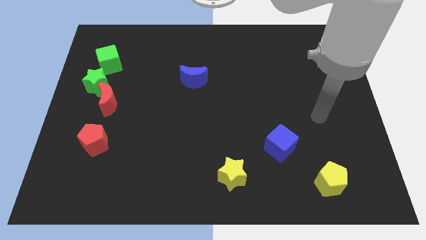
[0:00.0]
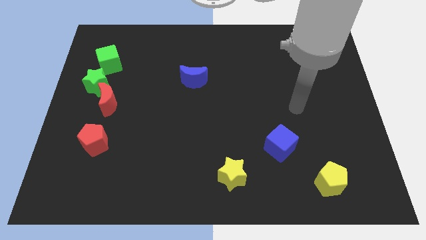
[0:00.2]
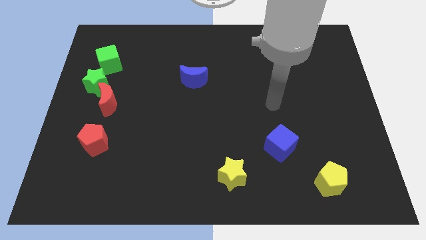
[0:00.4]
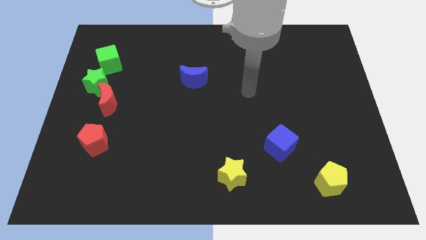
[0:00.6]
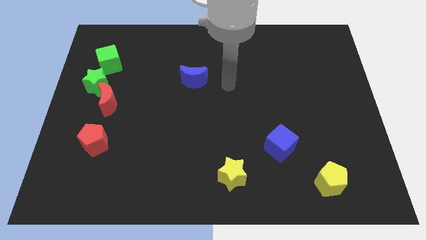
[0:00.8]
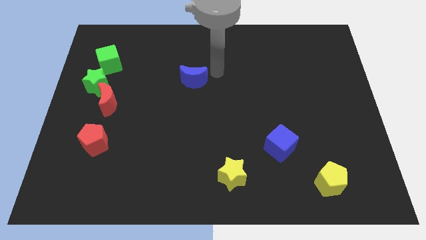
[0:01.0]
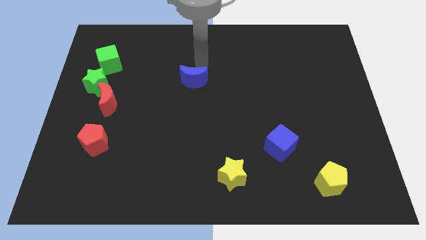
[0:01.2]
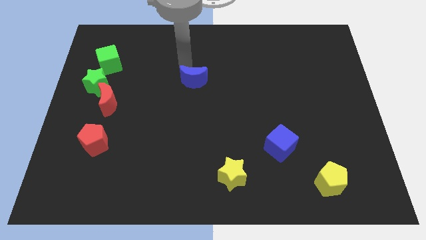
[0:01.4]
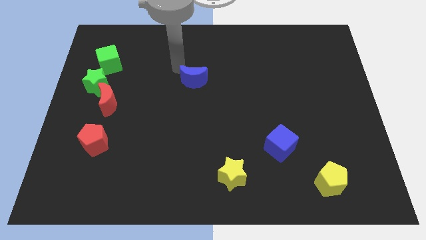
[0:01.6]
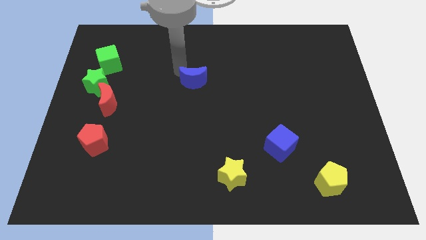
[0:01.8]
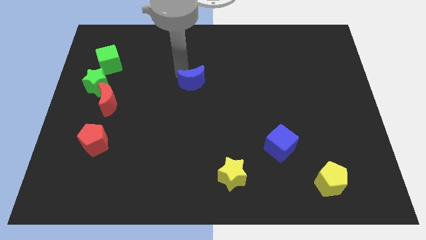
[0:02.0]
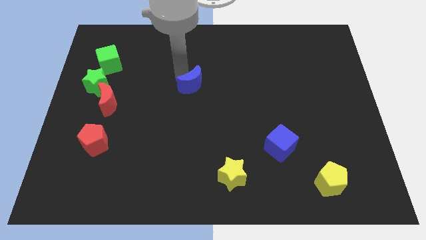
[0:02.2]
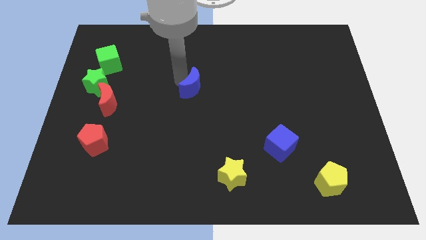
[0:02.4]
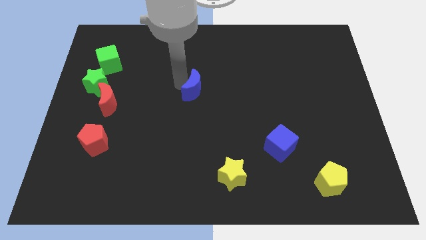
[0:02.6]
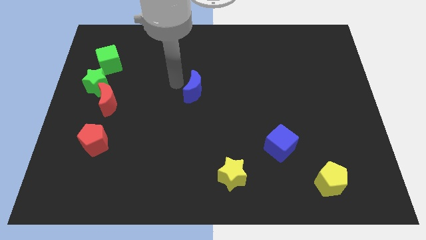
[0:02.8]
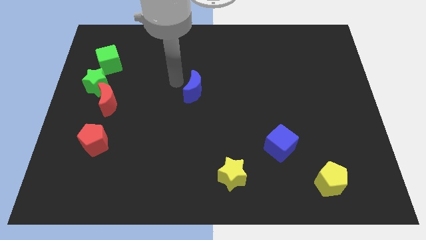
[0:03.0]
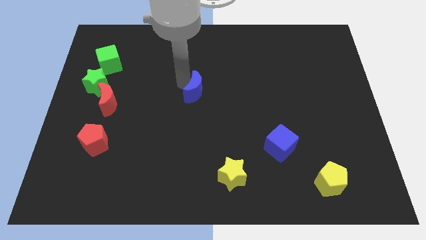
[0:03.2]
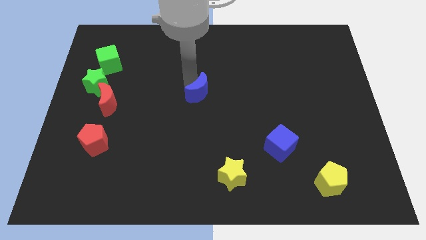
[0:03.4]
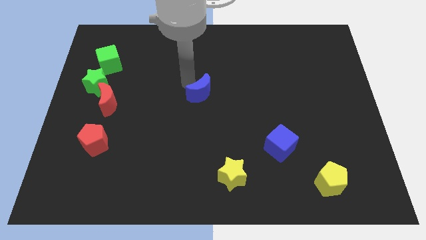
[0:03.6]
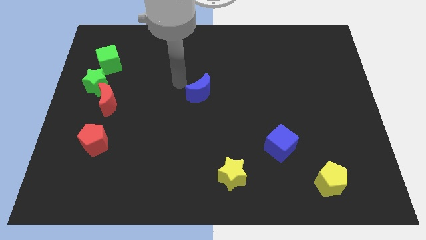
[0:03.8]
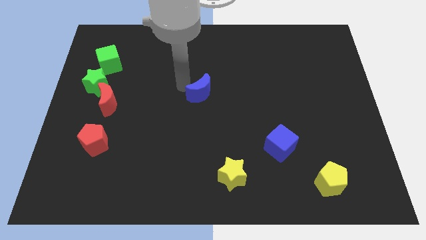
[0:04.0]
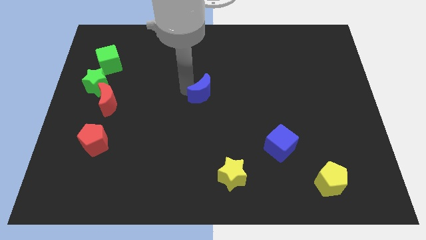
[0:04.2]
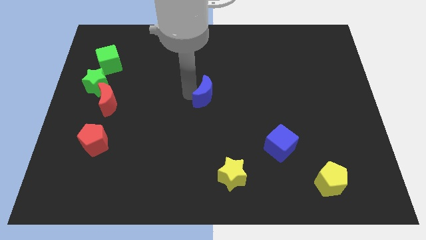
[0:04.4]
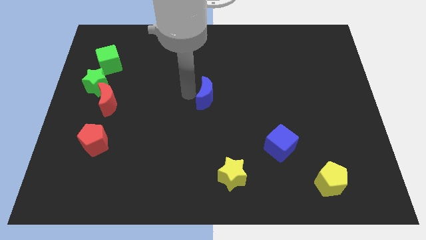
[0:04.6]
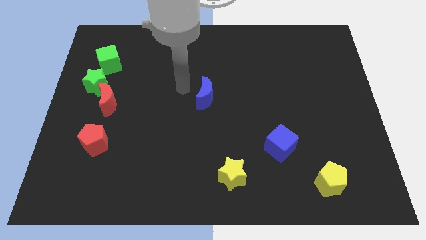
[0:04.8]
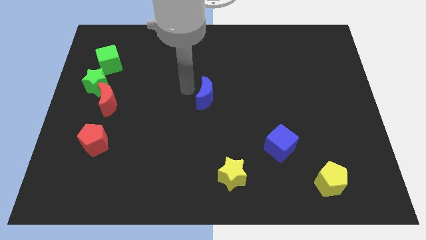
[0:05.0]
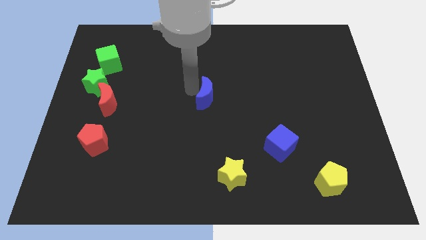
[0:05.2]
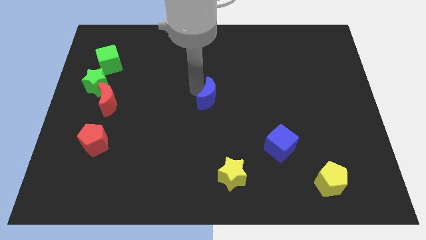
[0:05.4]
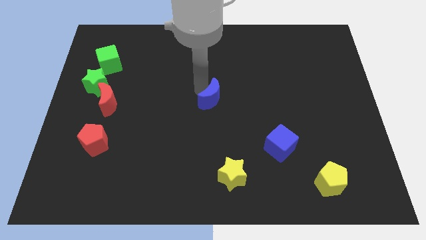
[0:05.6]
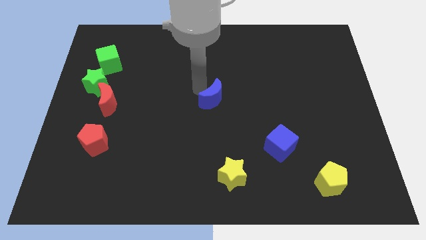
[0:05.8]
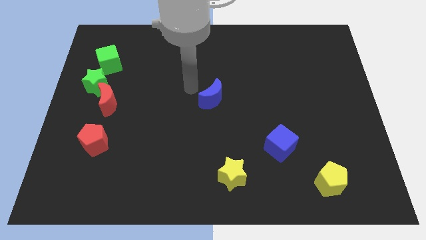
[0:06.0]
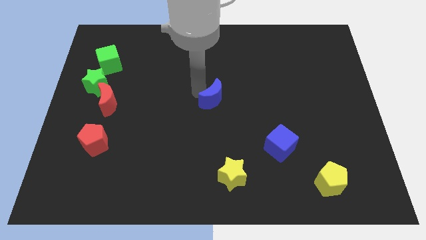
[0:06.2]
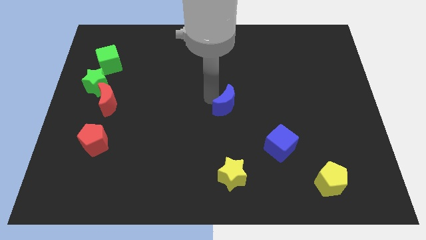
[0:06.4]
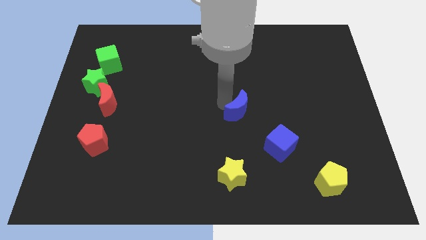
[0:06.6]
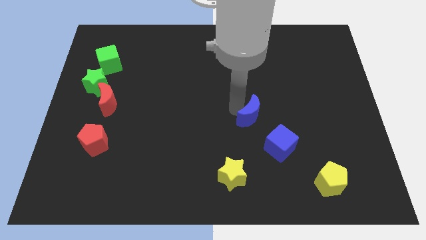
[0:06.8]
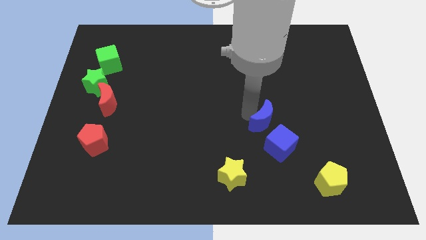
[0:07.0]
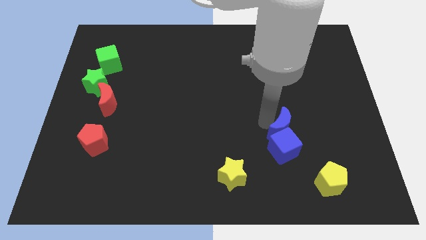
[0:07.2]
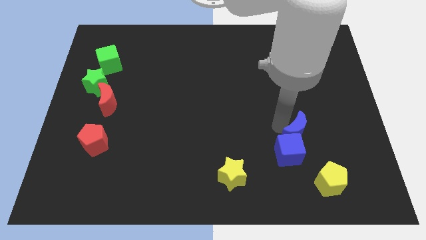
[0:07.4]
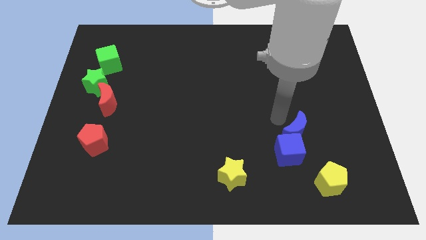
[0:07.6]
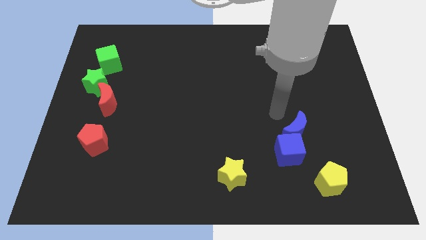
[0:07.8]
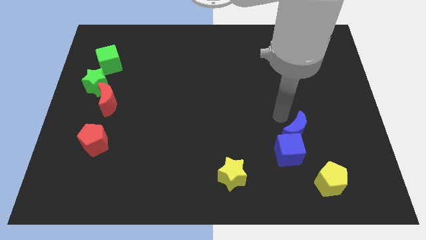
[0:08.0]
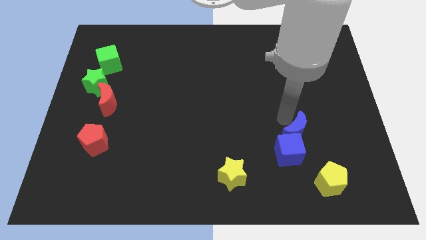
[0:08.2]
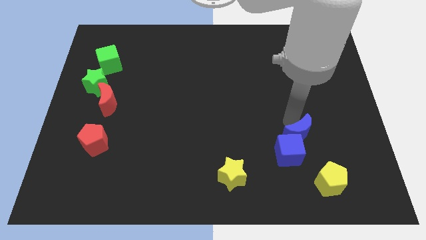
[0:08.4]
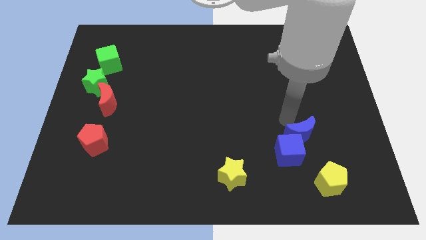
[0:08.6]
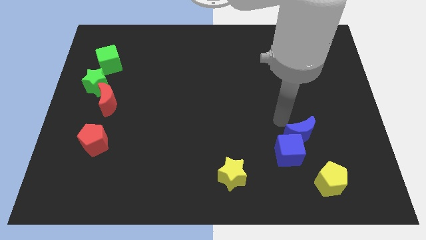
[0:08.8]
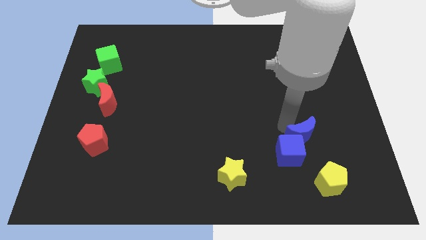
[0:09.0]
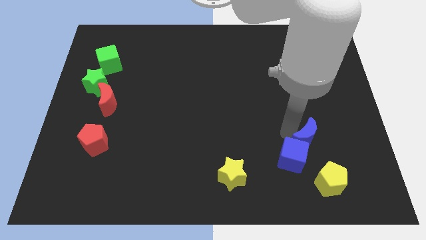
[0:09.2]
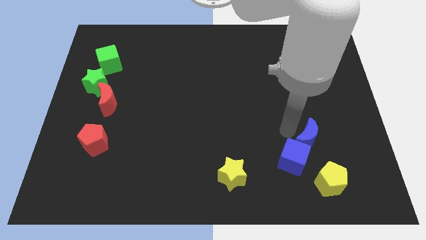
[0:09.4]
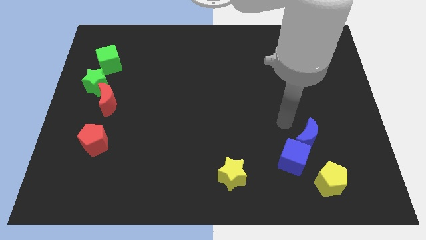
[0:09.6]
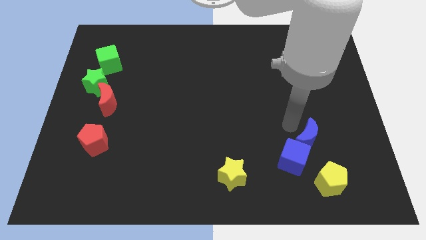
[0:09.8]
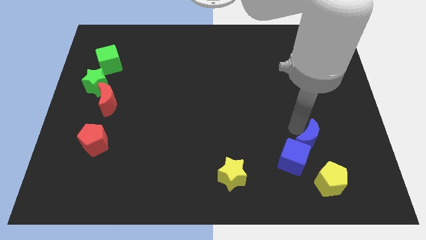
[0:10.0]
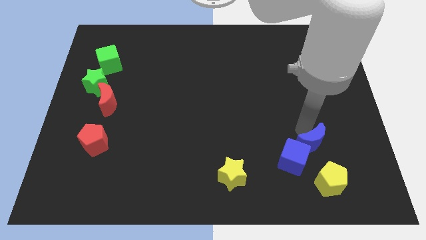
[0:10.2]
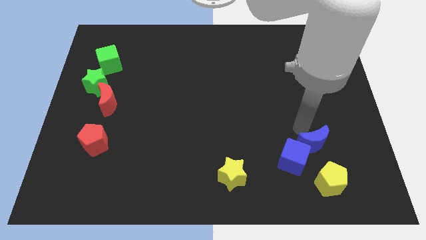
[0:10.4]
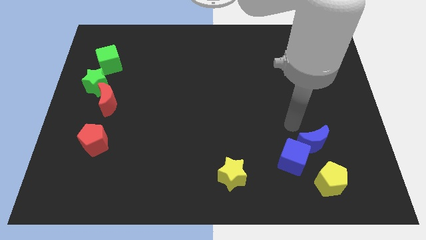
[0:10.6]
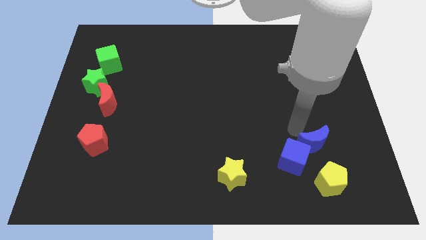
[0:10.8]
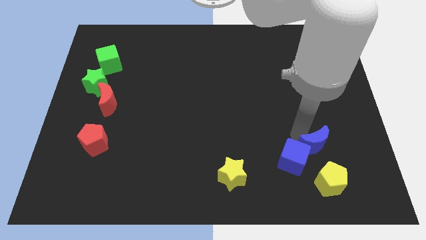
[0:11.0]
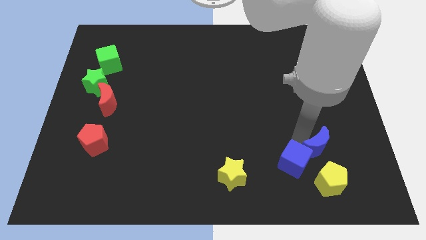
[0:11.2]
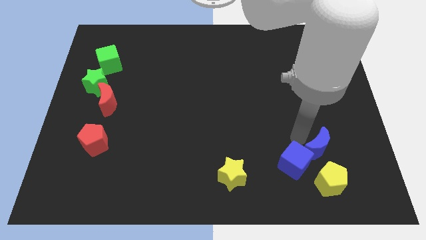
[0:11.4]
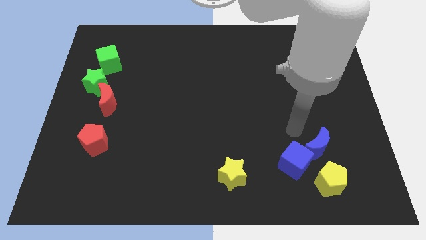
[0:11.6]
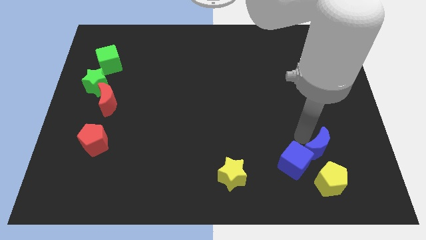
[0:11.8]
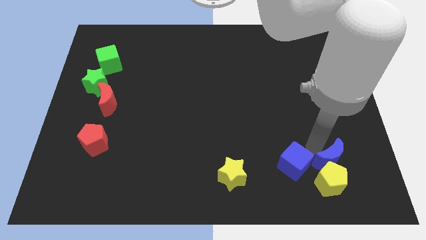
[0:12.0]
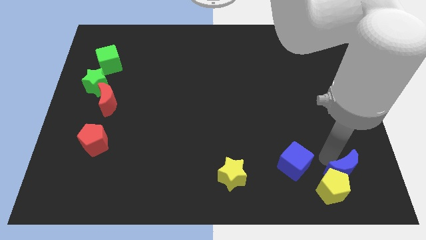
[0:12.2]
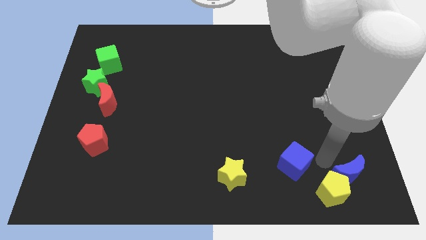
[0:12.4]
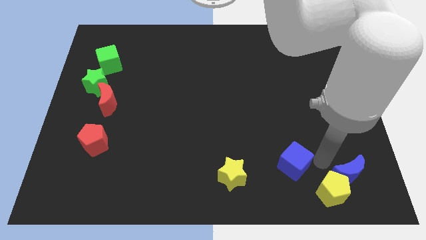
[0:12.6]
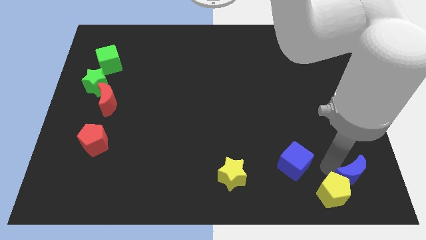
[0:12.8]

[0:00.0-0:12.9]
slide the blue moon to the bottom right corner
